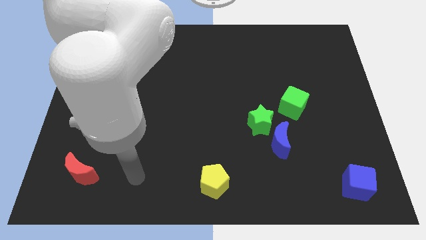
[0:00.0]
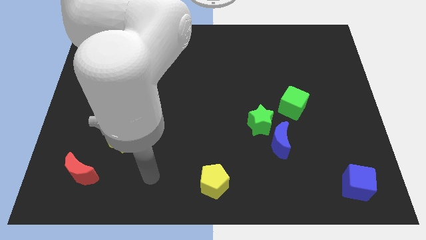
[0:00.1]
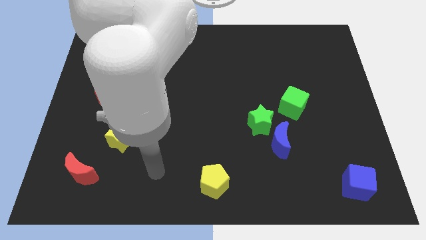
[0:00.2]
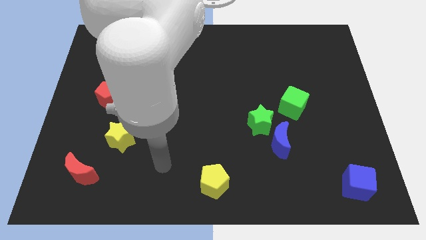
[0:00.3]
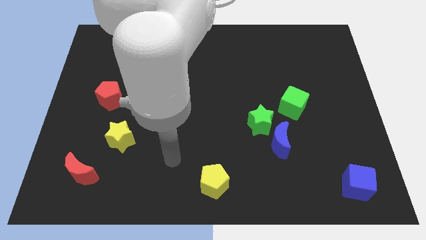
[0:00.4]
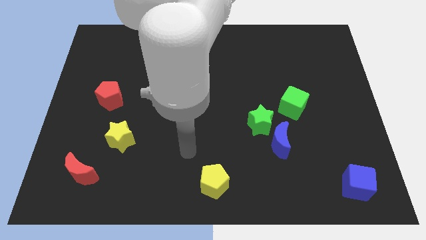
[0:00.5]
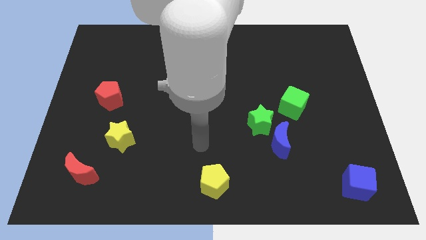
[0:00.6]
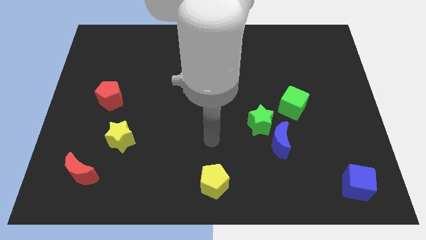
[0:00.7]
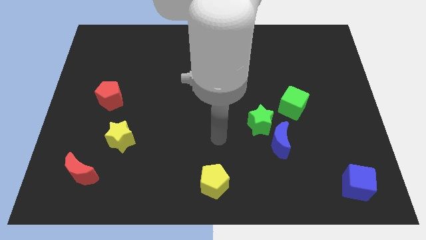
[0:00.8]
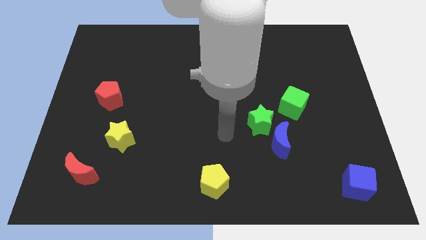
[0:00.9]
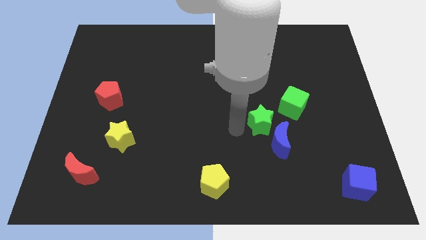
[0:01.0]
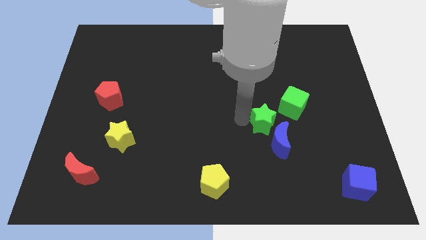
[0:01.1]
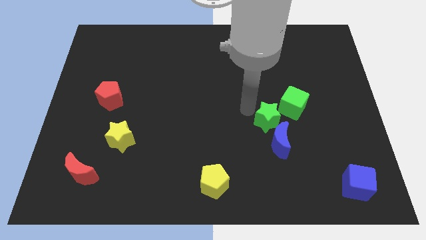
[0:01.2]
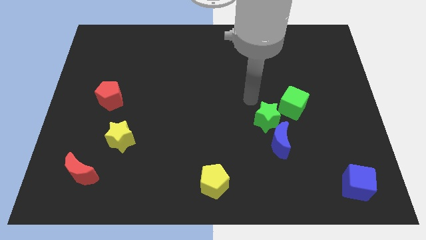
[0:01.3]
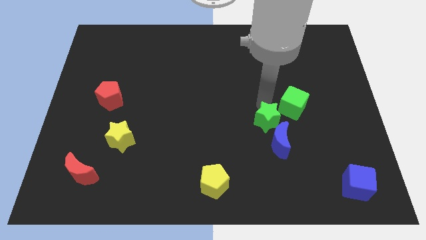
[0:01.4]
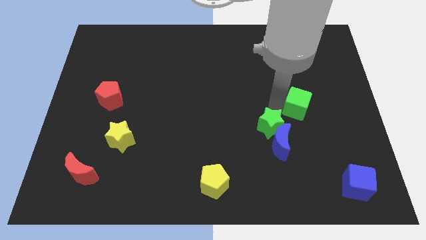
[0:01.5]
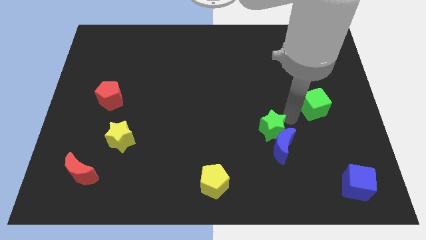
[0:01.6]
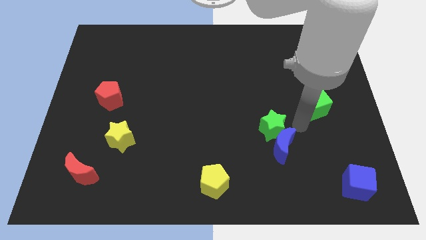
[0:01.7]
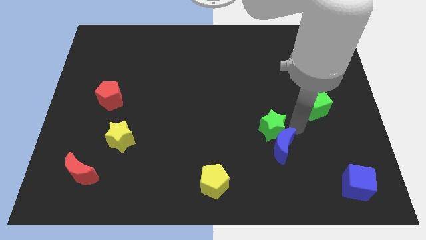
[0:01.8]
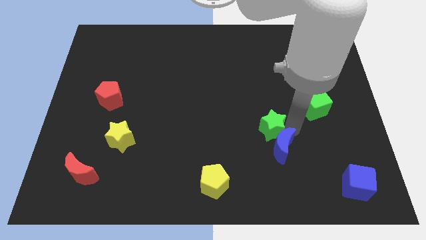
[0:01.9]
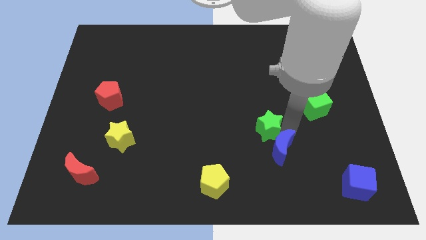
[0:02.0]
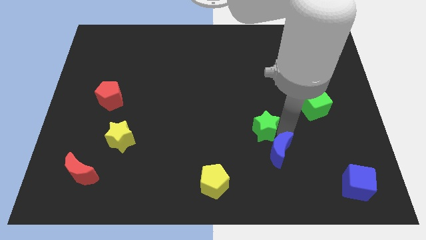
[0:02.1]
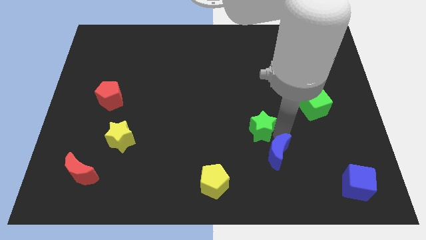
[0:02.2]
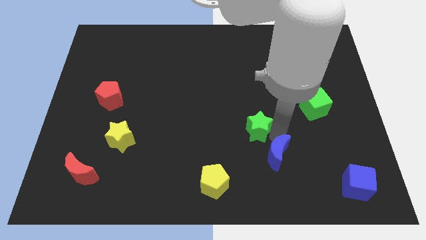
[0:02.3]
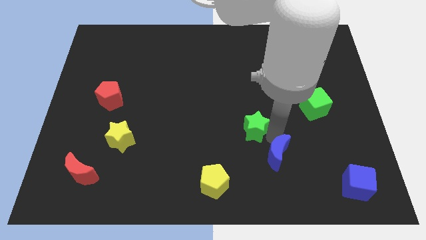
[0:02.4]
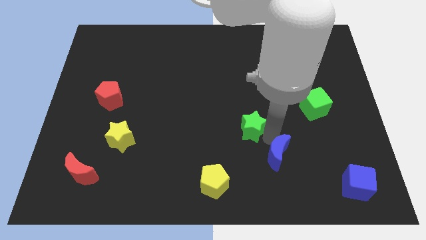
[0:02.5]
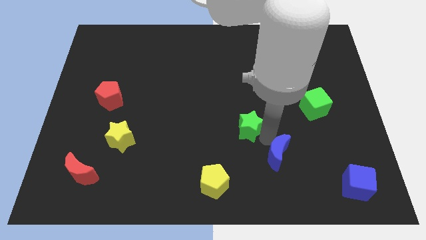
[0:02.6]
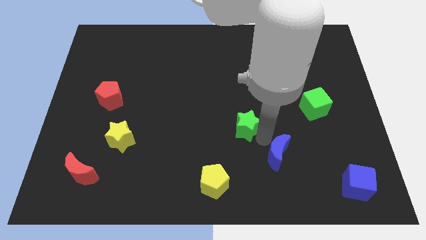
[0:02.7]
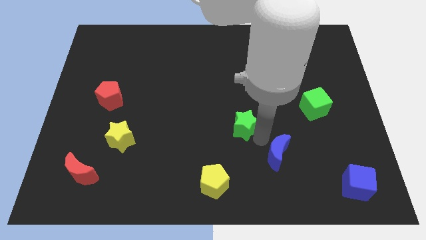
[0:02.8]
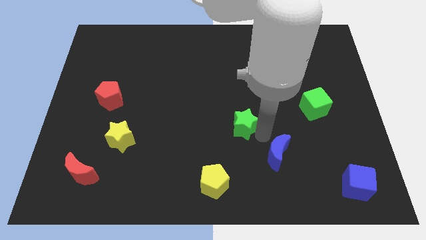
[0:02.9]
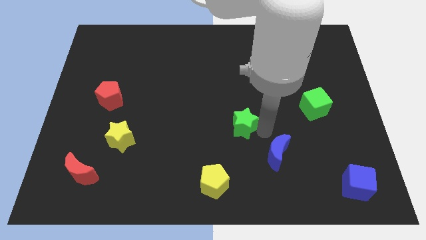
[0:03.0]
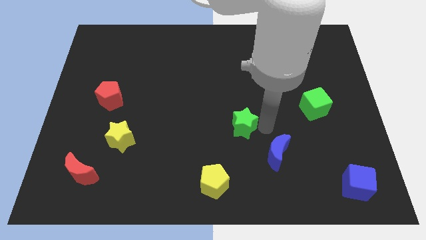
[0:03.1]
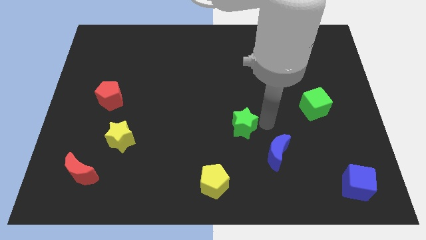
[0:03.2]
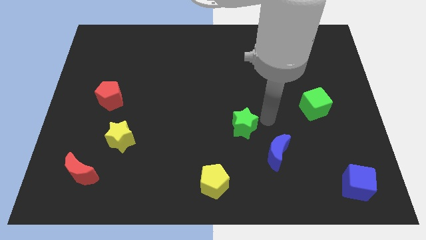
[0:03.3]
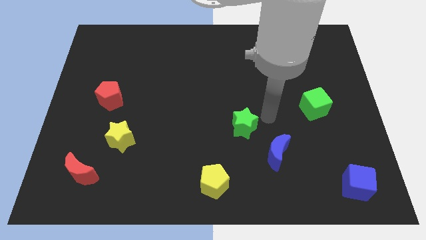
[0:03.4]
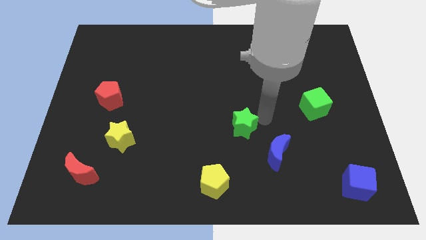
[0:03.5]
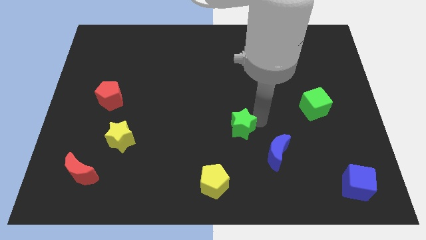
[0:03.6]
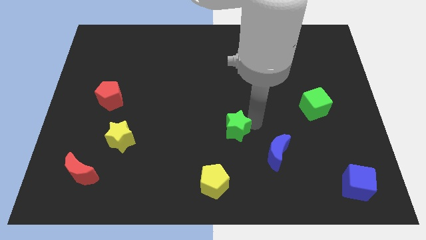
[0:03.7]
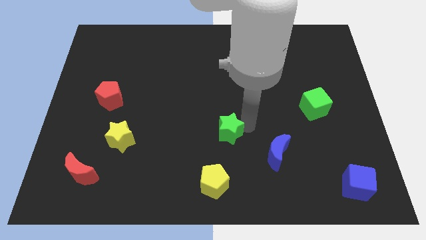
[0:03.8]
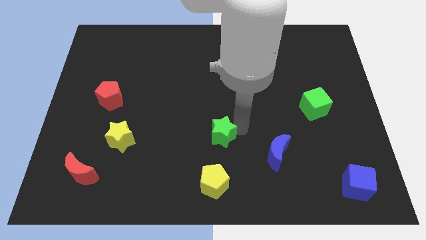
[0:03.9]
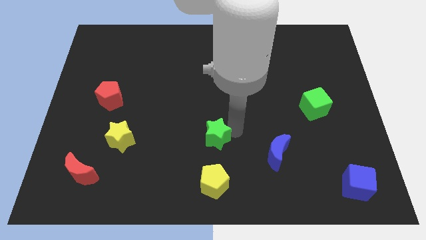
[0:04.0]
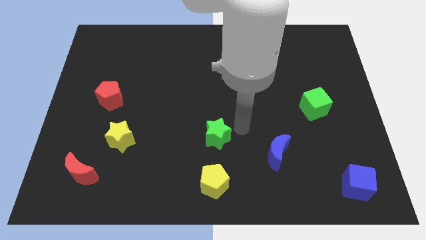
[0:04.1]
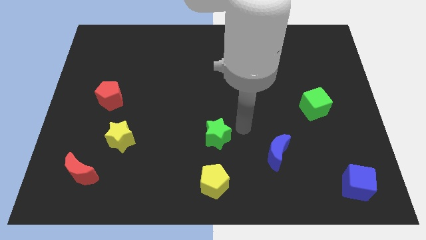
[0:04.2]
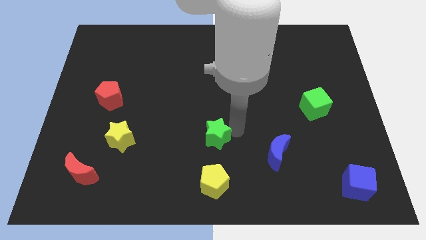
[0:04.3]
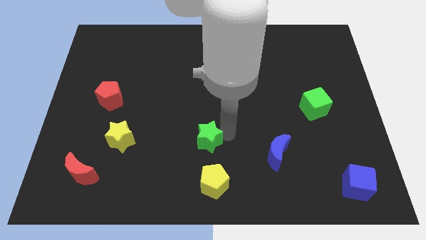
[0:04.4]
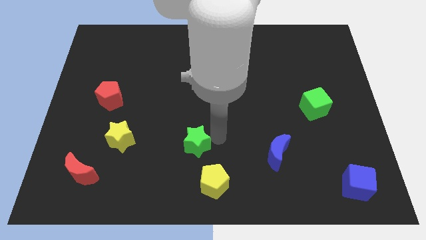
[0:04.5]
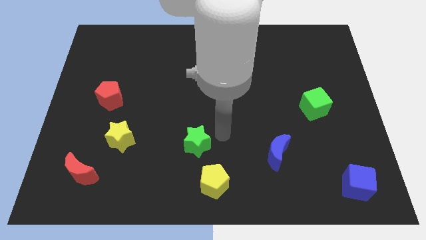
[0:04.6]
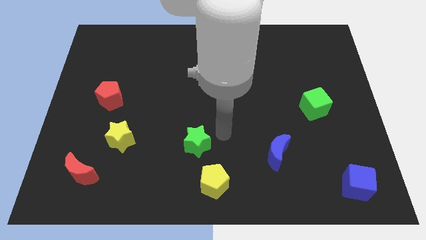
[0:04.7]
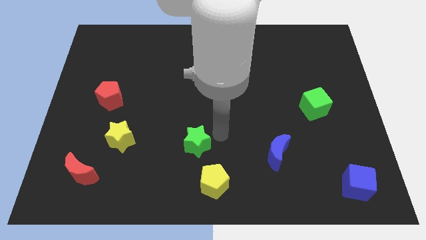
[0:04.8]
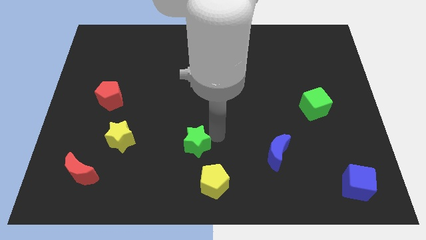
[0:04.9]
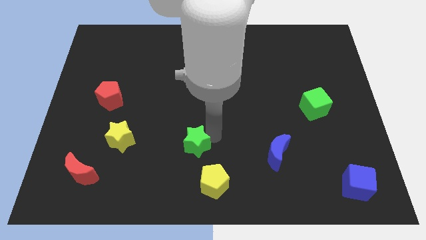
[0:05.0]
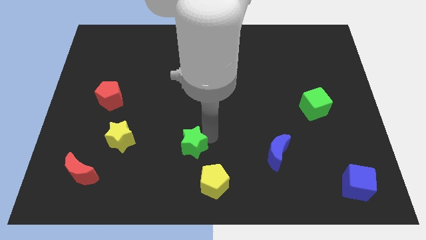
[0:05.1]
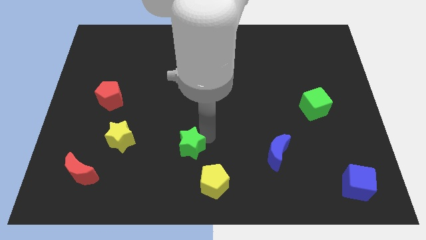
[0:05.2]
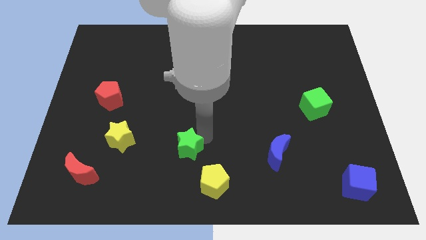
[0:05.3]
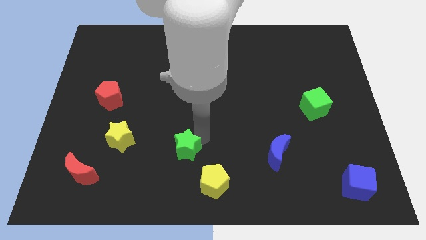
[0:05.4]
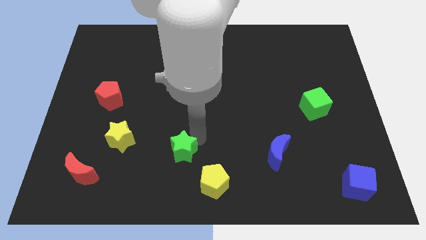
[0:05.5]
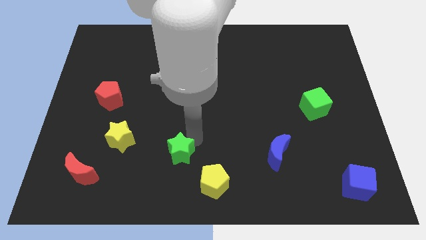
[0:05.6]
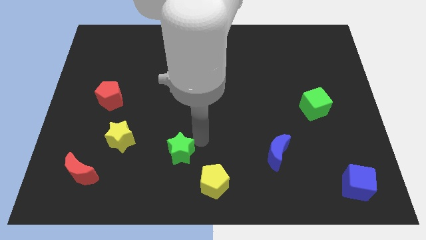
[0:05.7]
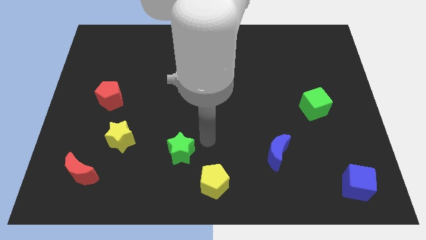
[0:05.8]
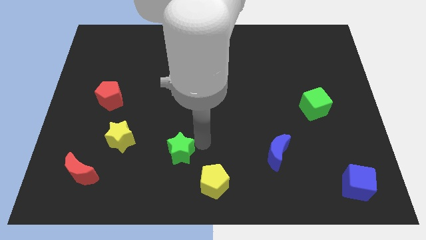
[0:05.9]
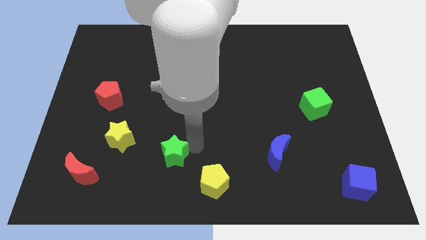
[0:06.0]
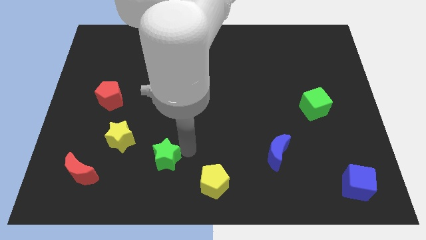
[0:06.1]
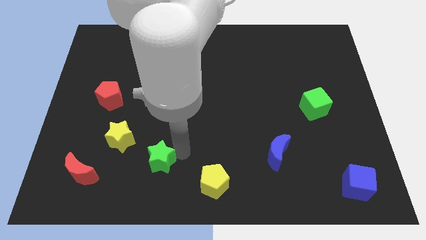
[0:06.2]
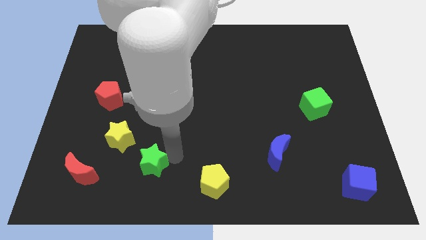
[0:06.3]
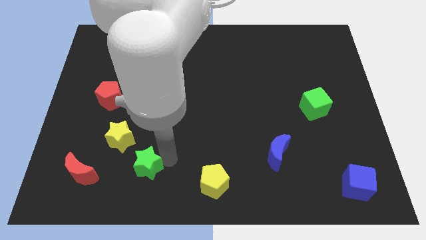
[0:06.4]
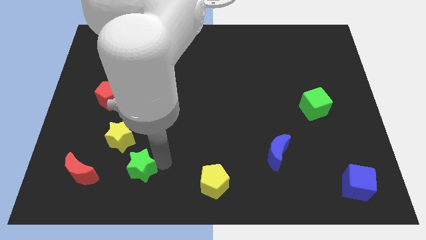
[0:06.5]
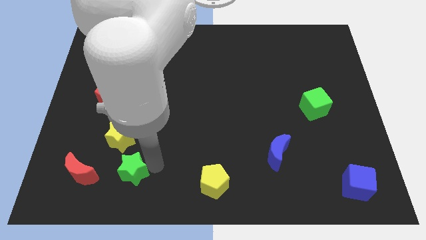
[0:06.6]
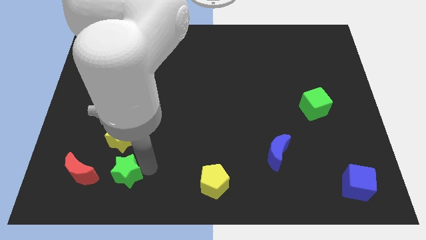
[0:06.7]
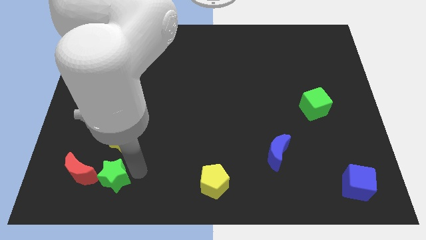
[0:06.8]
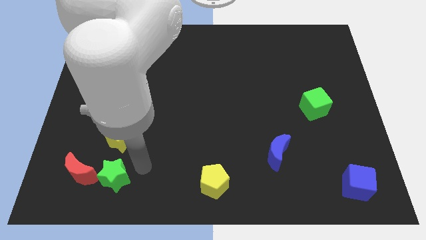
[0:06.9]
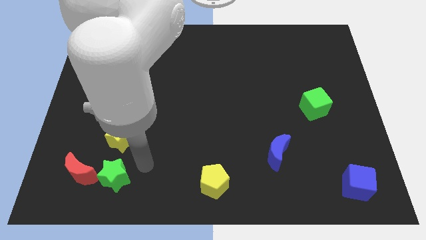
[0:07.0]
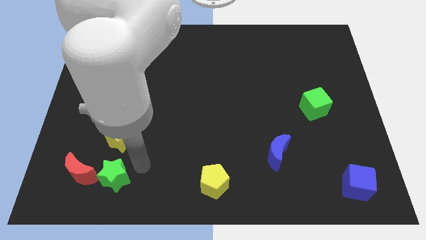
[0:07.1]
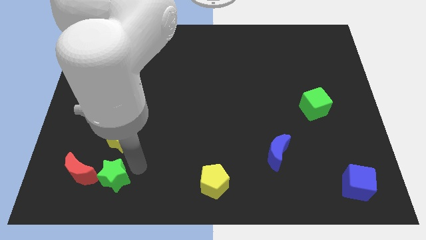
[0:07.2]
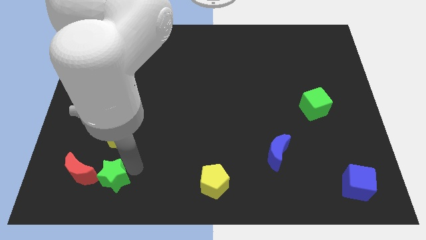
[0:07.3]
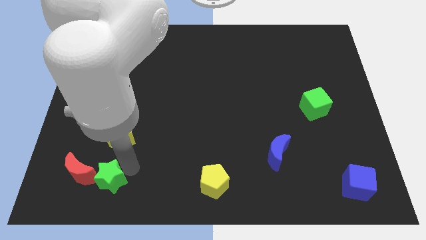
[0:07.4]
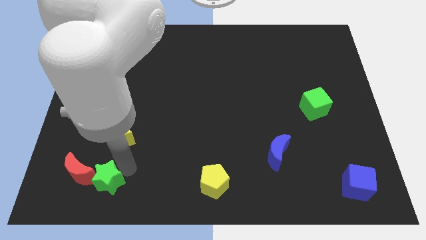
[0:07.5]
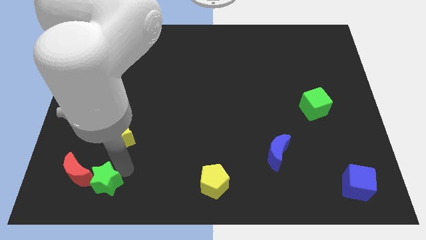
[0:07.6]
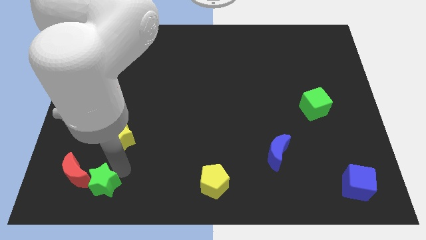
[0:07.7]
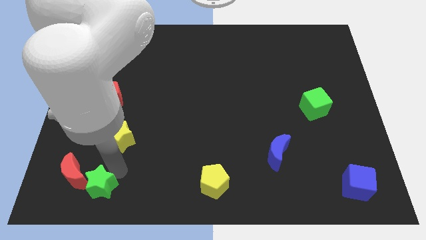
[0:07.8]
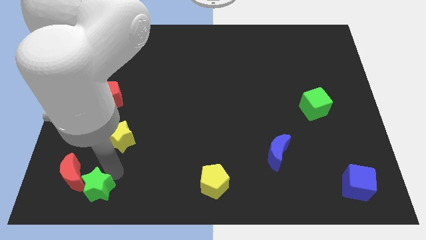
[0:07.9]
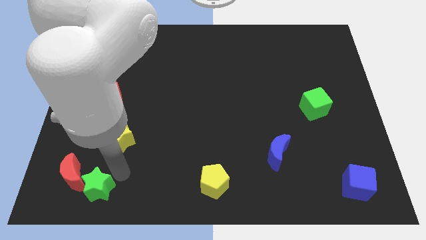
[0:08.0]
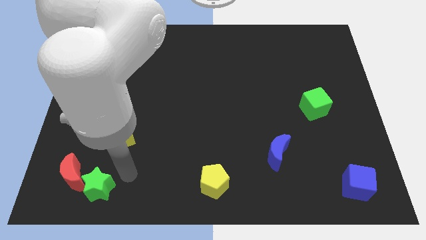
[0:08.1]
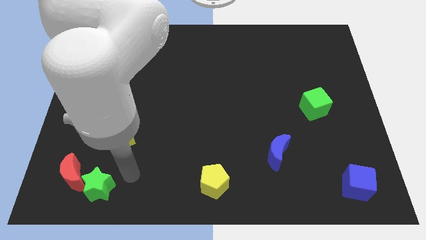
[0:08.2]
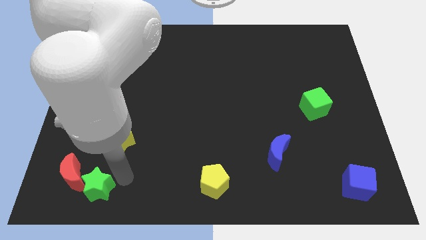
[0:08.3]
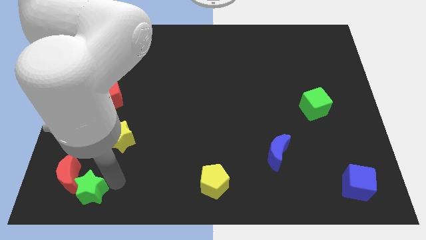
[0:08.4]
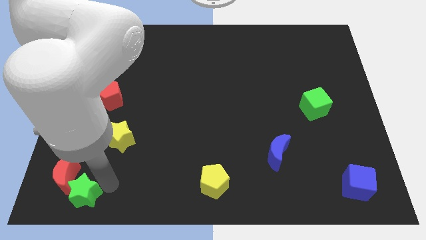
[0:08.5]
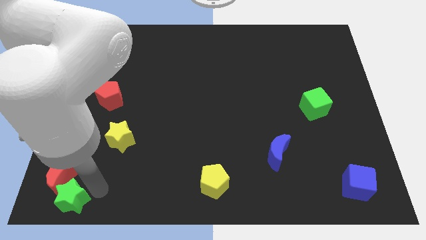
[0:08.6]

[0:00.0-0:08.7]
slide the green star to the bottom left
